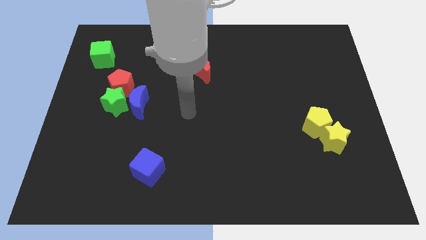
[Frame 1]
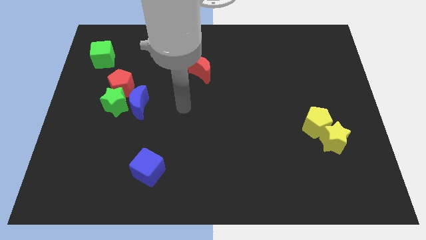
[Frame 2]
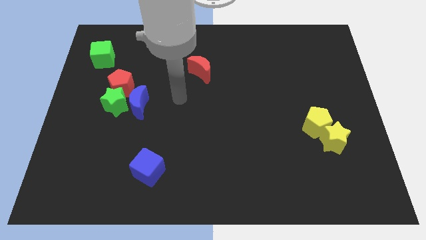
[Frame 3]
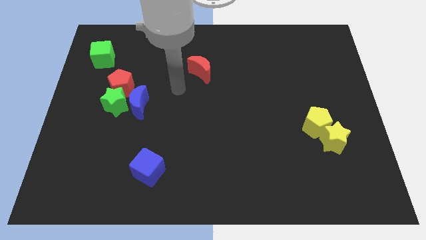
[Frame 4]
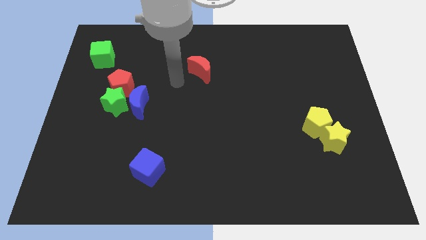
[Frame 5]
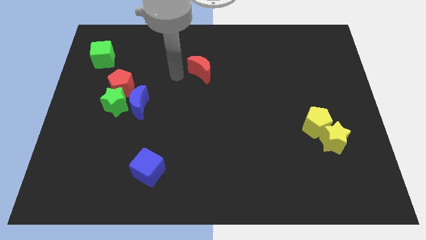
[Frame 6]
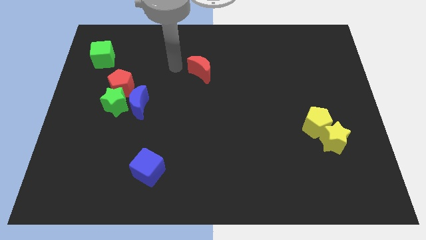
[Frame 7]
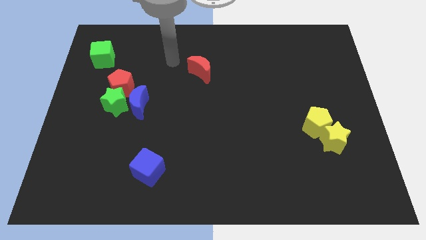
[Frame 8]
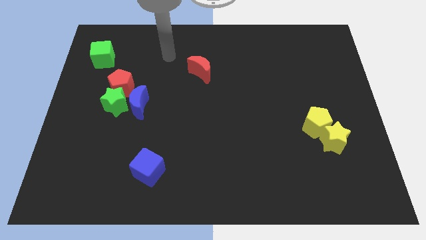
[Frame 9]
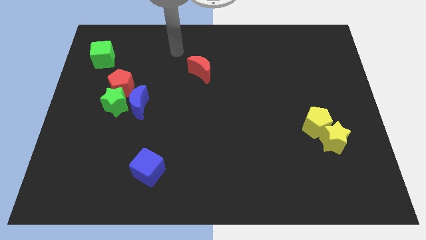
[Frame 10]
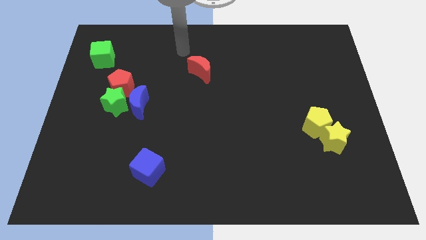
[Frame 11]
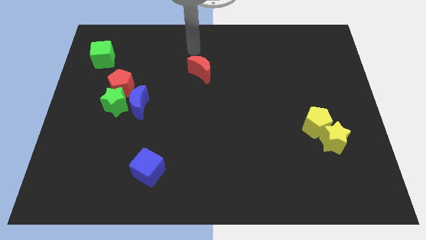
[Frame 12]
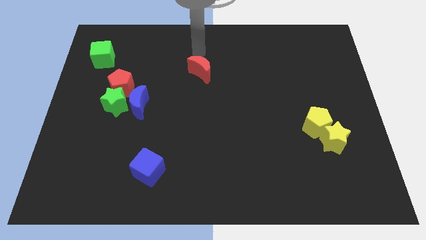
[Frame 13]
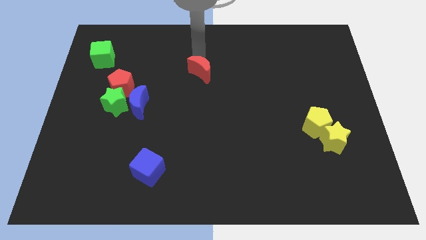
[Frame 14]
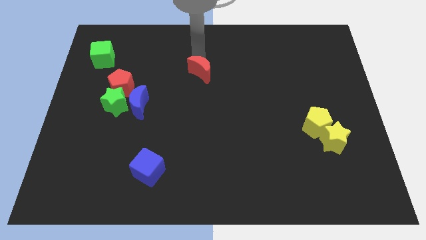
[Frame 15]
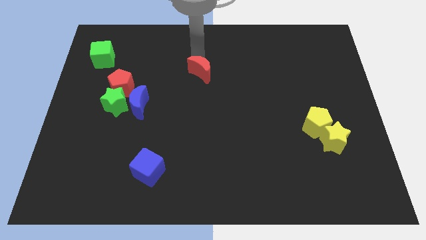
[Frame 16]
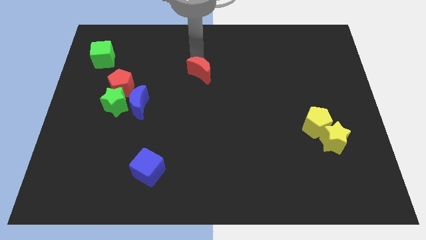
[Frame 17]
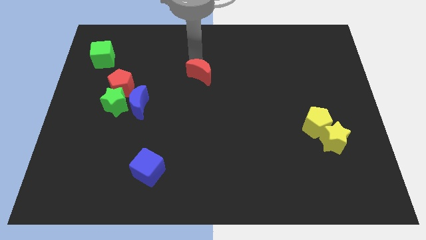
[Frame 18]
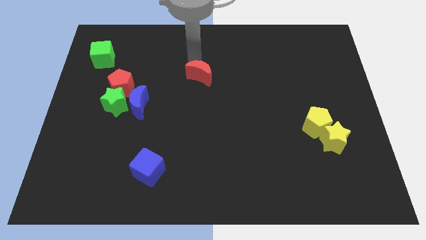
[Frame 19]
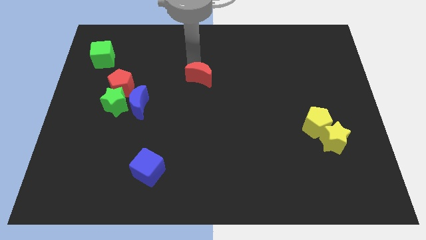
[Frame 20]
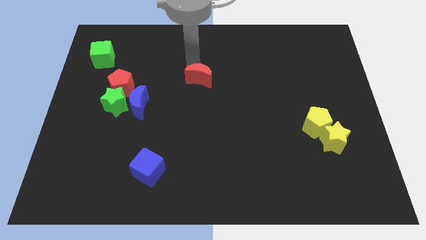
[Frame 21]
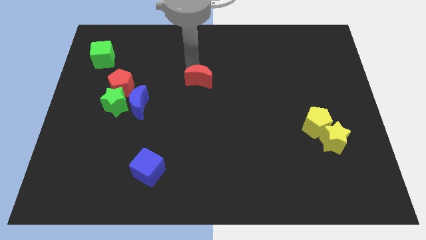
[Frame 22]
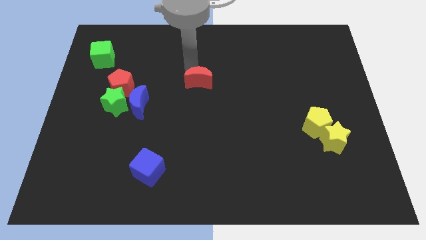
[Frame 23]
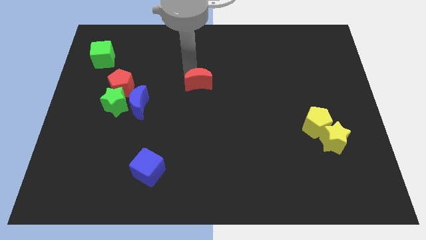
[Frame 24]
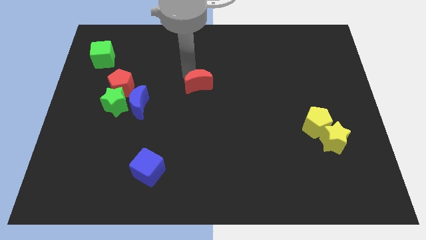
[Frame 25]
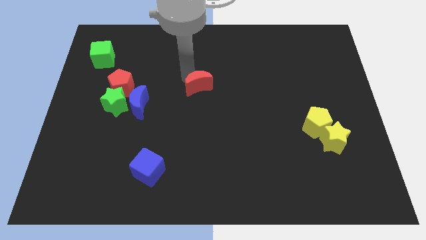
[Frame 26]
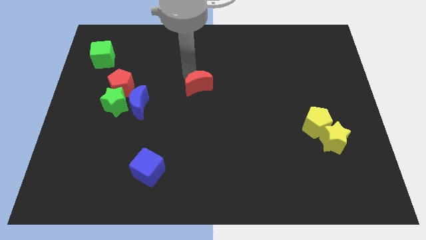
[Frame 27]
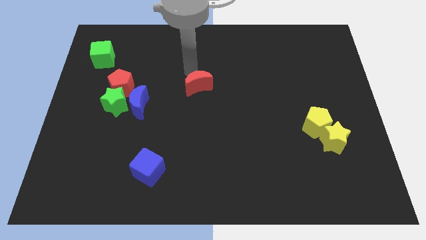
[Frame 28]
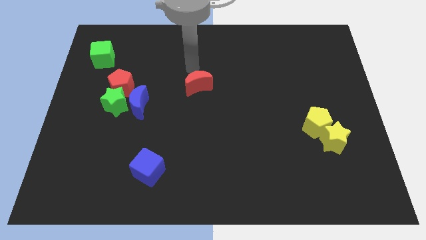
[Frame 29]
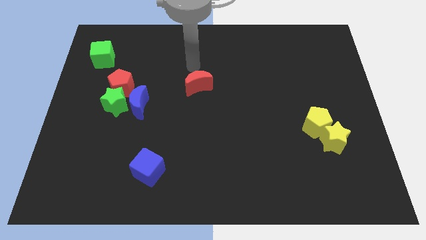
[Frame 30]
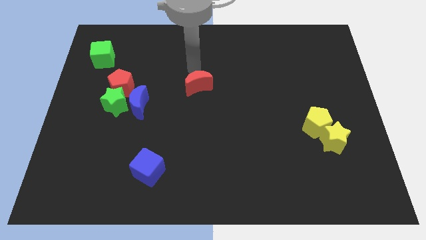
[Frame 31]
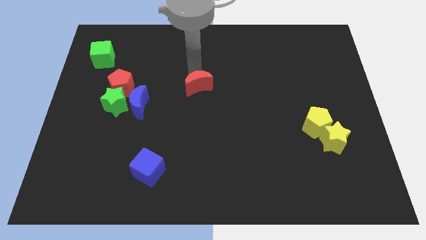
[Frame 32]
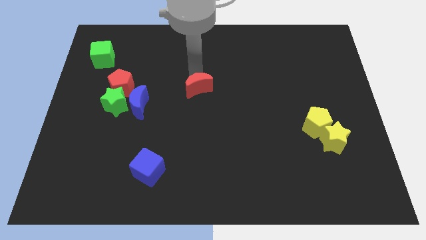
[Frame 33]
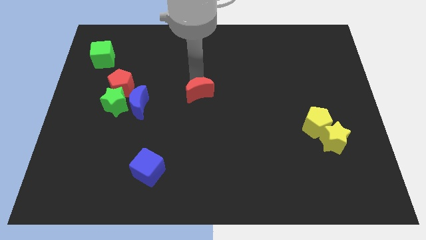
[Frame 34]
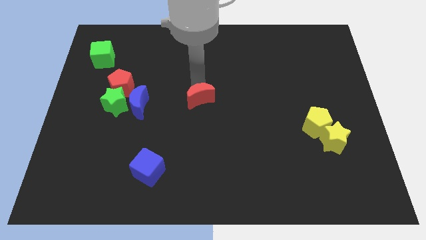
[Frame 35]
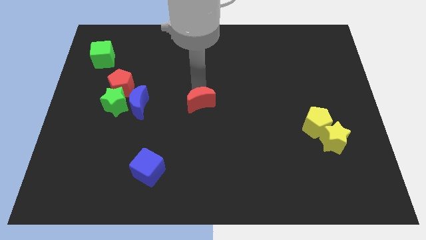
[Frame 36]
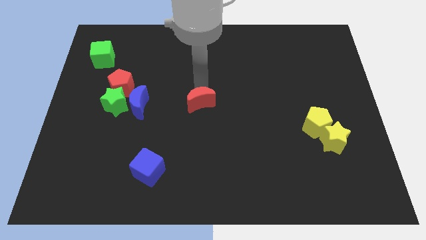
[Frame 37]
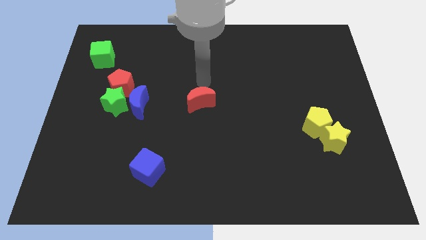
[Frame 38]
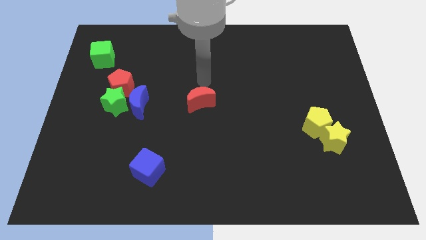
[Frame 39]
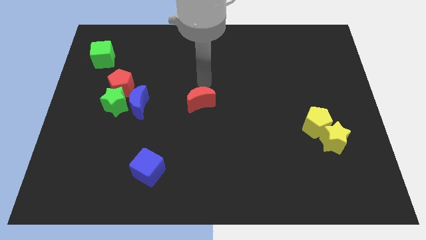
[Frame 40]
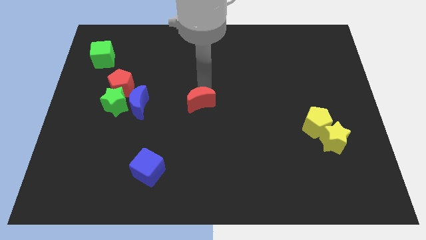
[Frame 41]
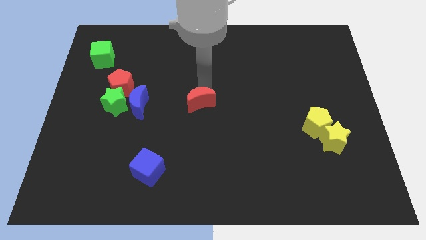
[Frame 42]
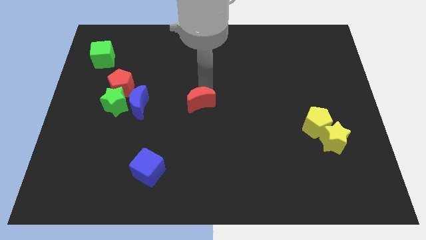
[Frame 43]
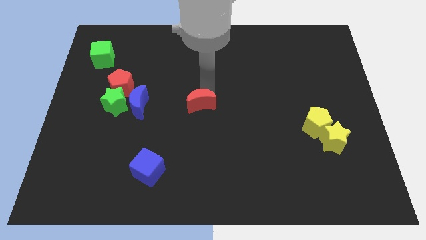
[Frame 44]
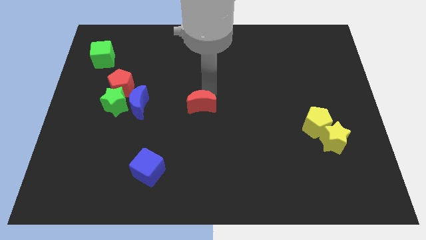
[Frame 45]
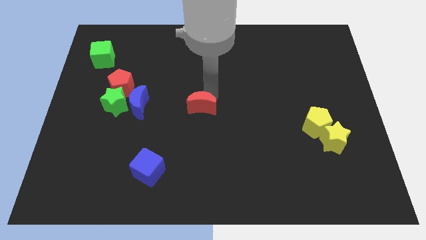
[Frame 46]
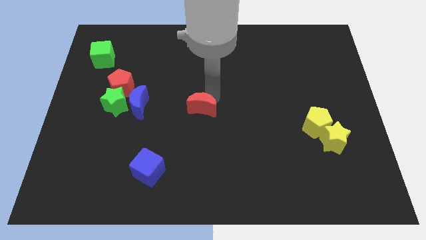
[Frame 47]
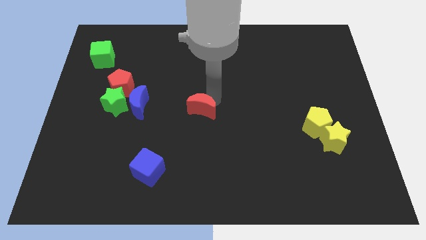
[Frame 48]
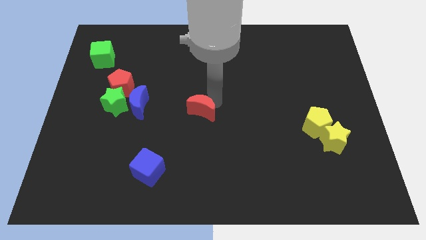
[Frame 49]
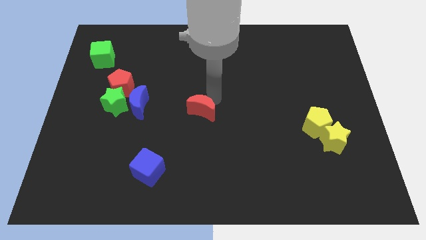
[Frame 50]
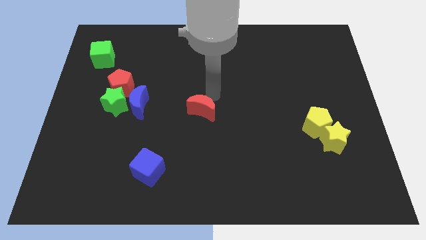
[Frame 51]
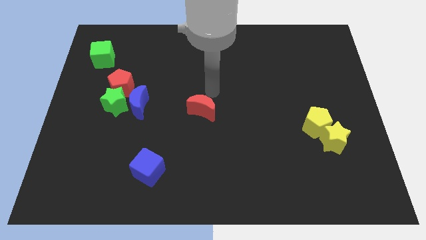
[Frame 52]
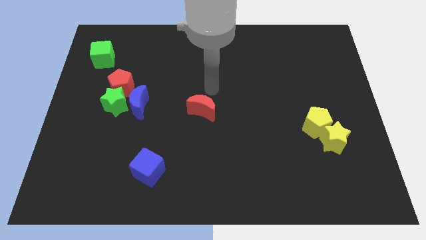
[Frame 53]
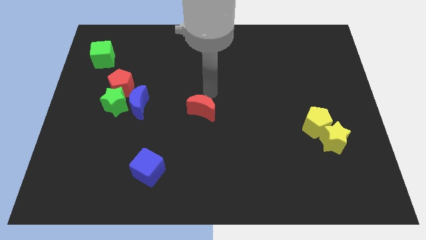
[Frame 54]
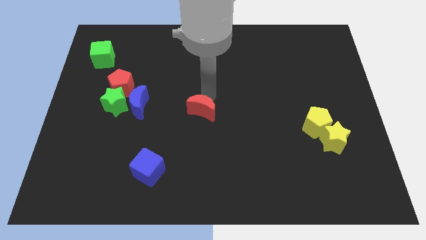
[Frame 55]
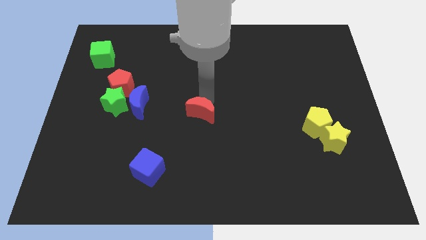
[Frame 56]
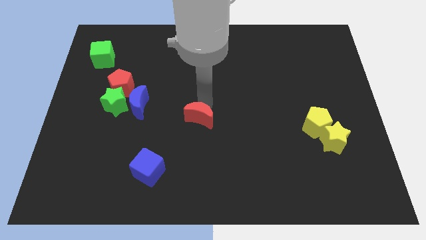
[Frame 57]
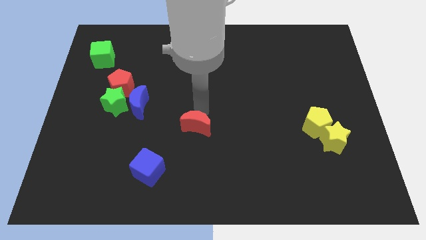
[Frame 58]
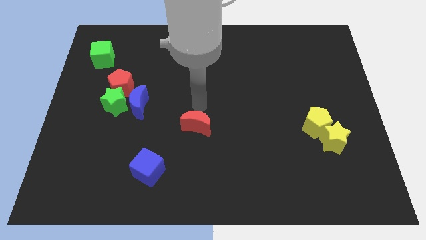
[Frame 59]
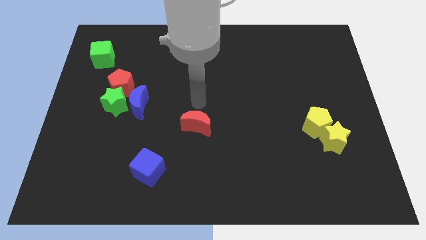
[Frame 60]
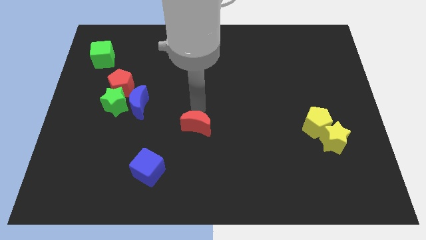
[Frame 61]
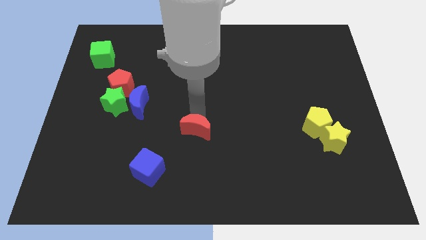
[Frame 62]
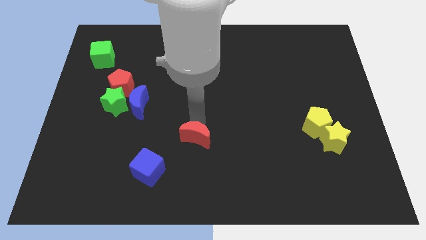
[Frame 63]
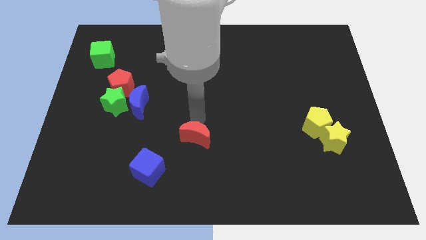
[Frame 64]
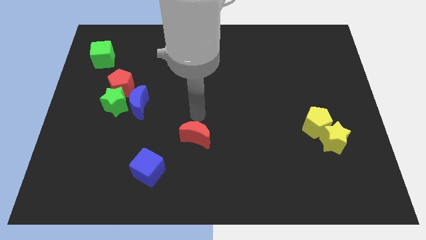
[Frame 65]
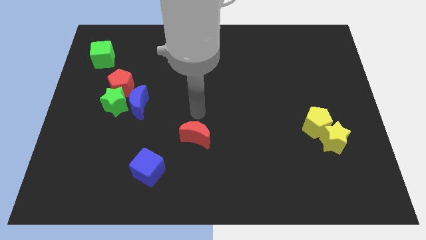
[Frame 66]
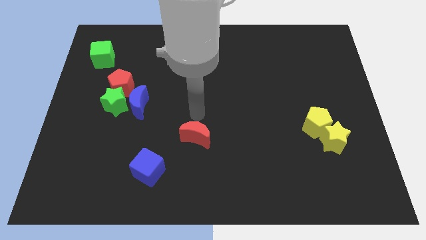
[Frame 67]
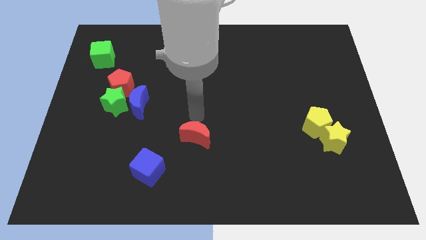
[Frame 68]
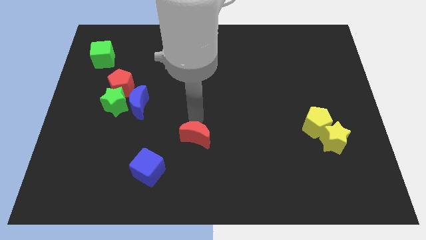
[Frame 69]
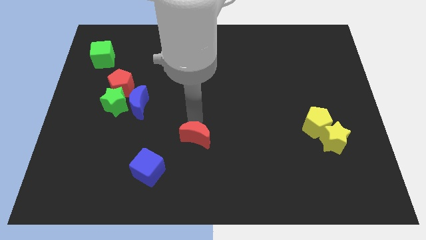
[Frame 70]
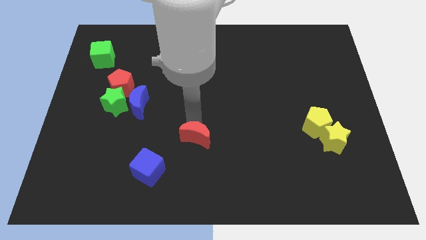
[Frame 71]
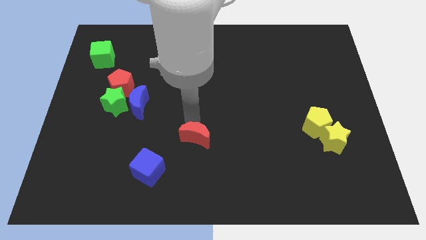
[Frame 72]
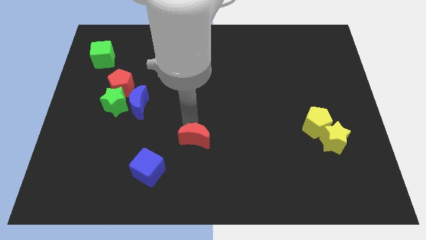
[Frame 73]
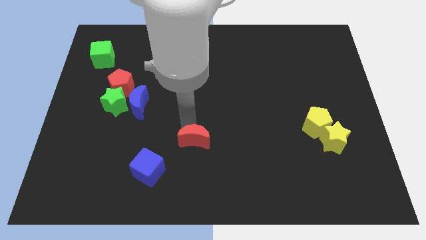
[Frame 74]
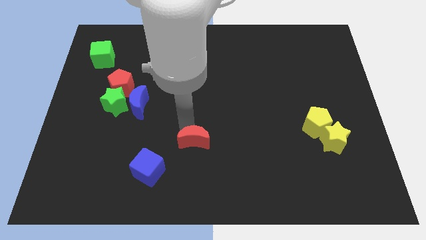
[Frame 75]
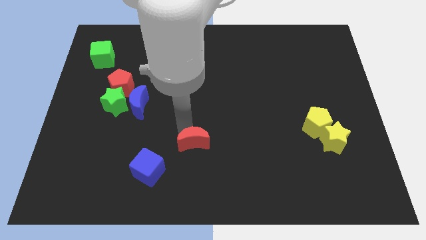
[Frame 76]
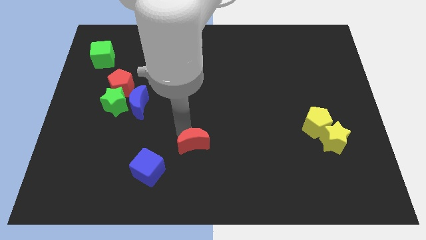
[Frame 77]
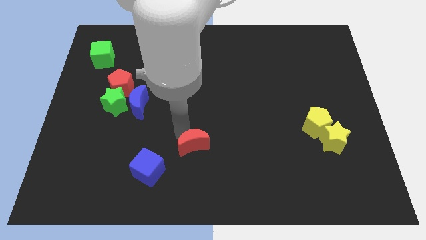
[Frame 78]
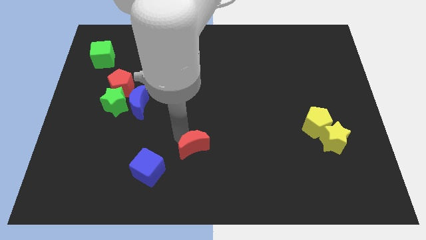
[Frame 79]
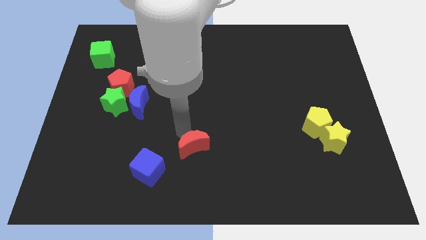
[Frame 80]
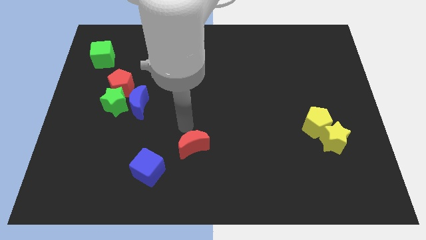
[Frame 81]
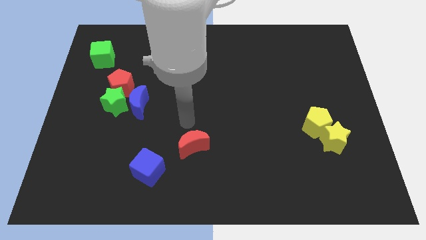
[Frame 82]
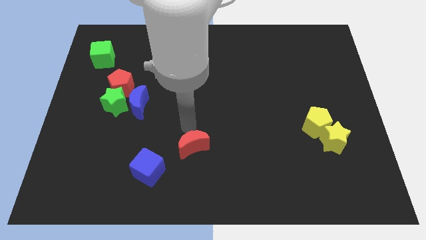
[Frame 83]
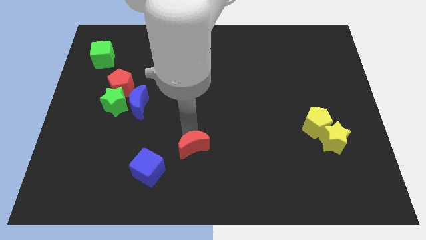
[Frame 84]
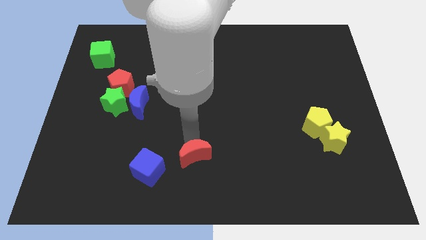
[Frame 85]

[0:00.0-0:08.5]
push the red moon right of the blue cube
